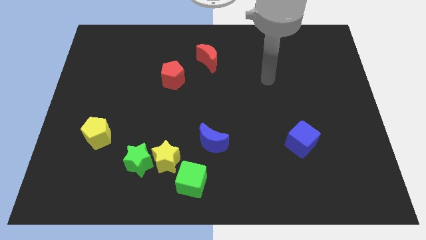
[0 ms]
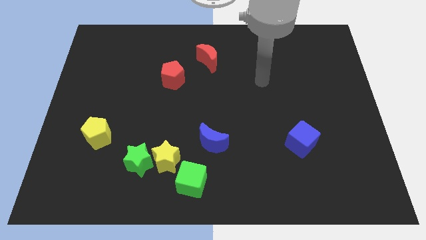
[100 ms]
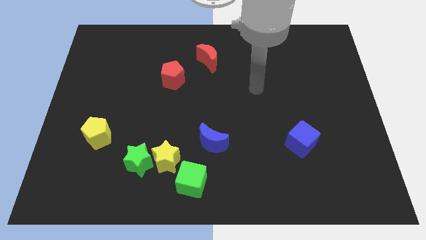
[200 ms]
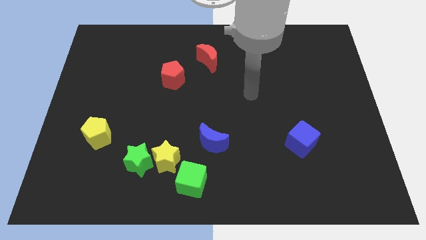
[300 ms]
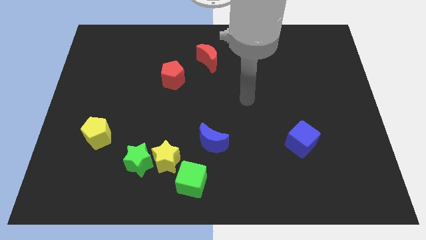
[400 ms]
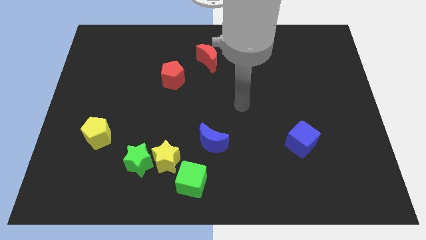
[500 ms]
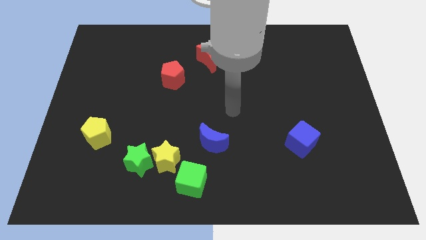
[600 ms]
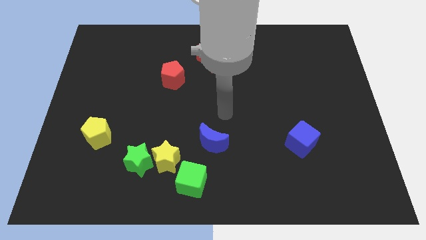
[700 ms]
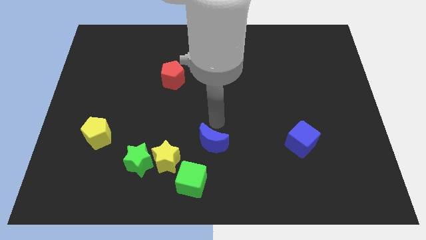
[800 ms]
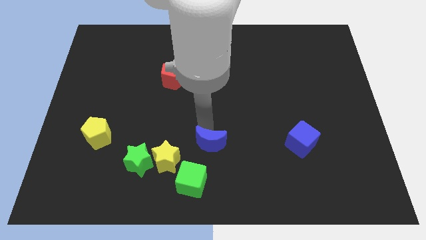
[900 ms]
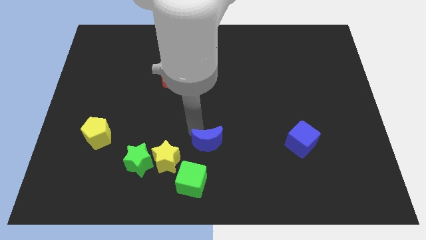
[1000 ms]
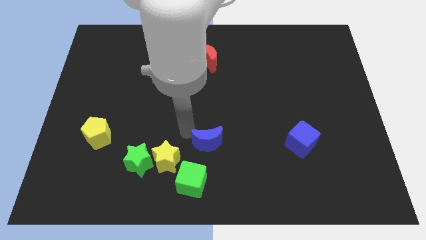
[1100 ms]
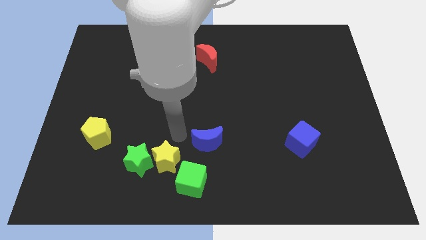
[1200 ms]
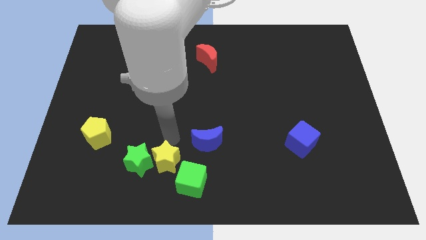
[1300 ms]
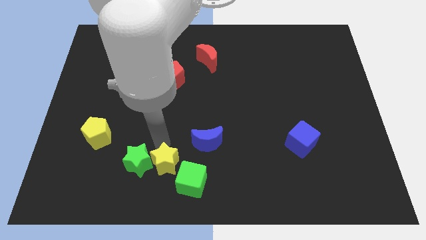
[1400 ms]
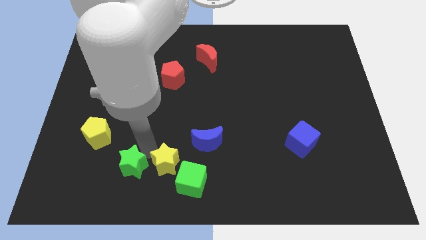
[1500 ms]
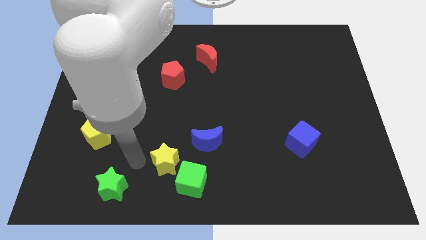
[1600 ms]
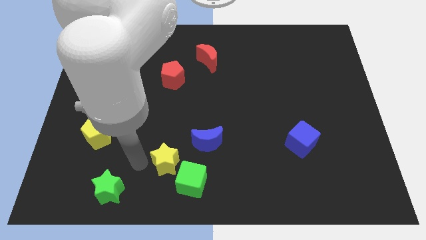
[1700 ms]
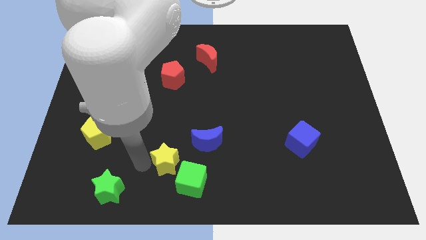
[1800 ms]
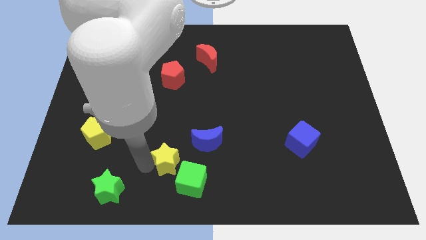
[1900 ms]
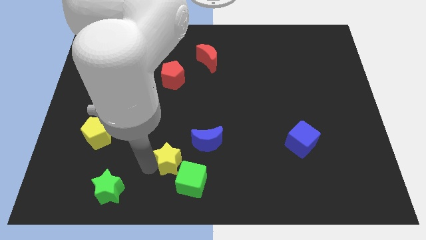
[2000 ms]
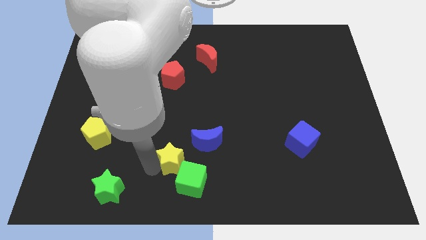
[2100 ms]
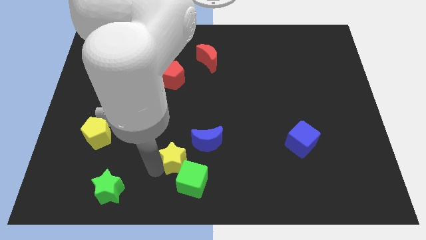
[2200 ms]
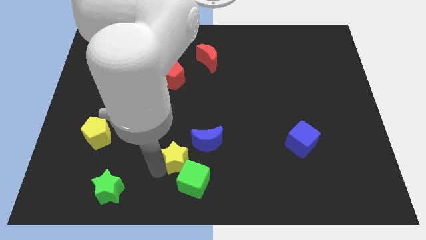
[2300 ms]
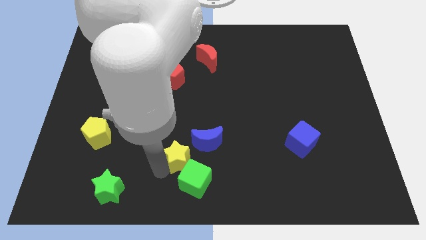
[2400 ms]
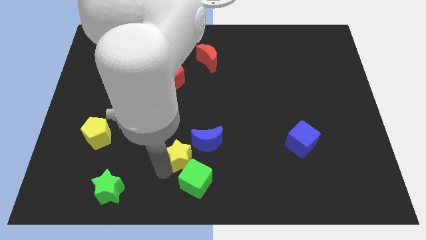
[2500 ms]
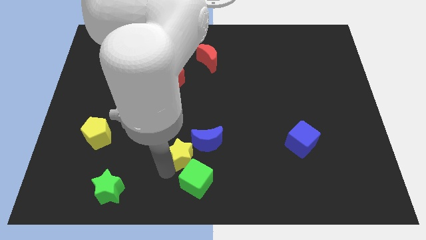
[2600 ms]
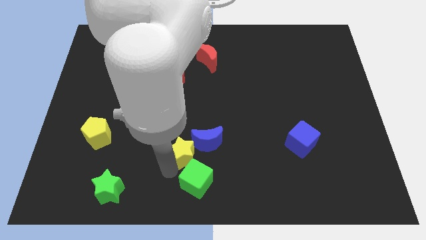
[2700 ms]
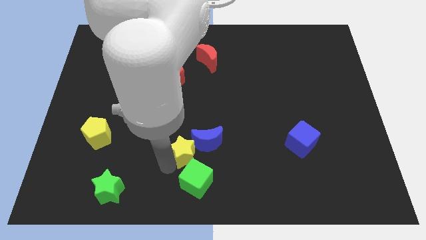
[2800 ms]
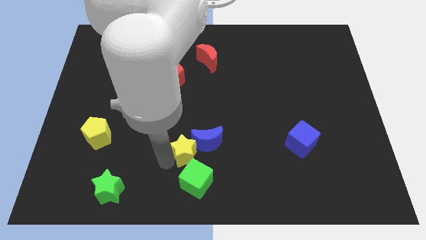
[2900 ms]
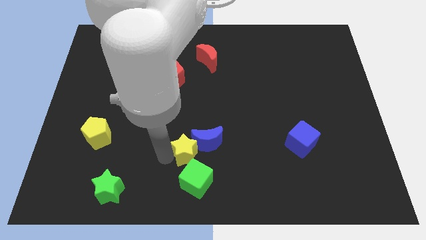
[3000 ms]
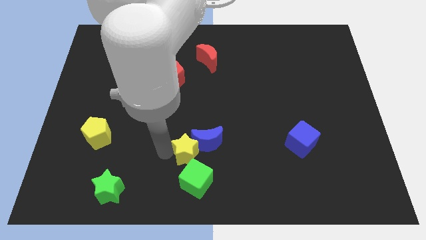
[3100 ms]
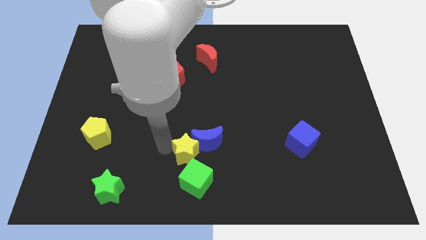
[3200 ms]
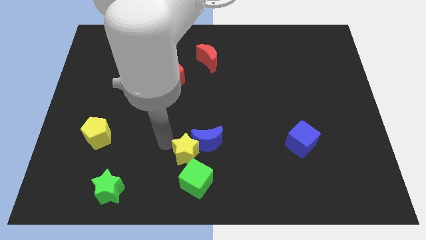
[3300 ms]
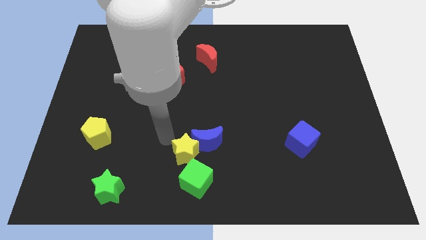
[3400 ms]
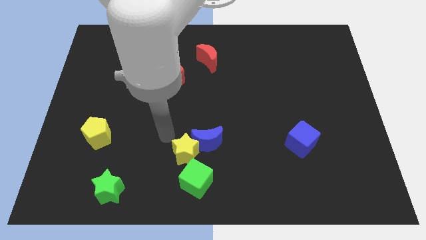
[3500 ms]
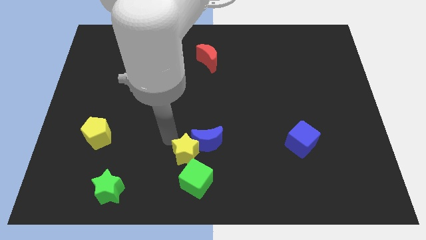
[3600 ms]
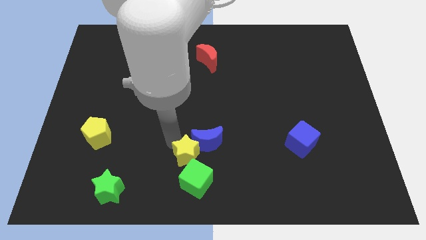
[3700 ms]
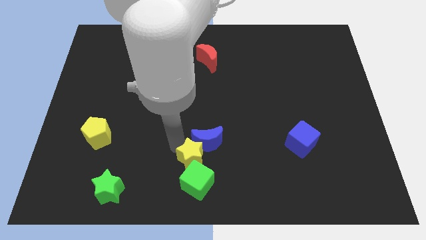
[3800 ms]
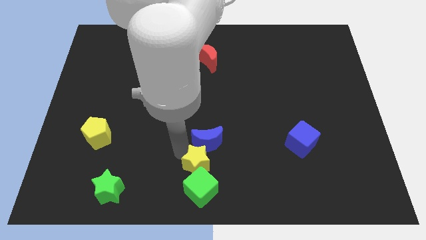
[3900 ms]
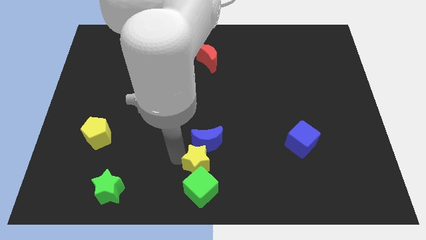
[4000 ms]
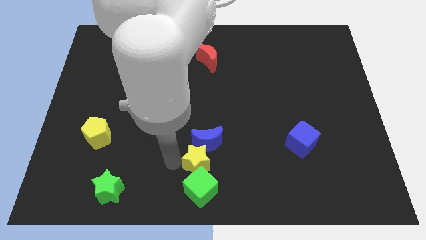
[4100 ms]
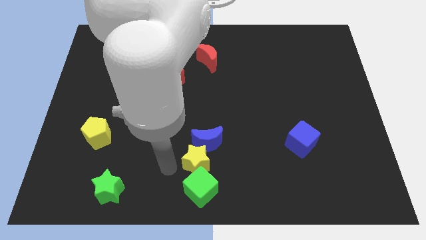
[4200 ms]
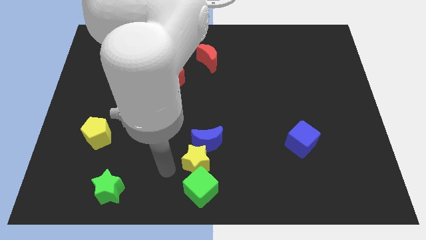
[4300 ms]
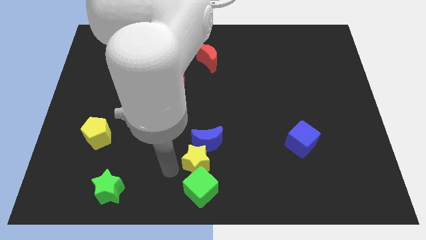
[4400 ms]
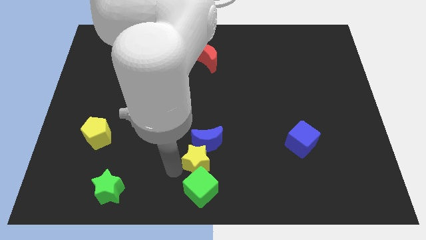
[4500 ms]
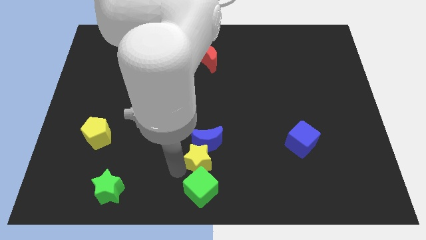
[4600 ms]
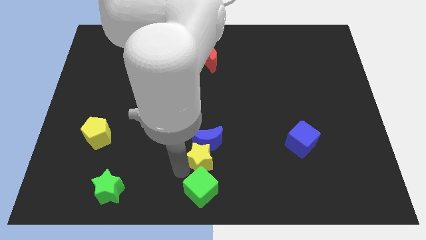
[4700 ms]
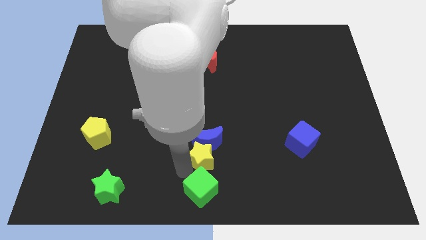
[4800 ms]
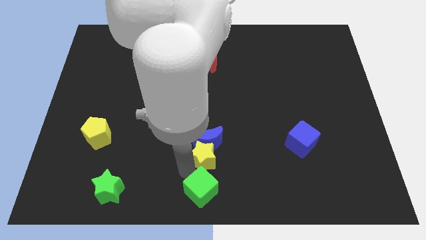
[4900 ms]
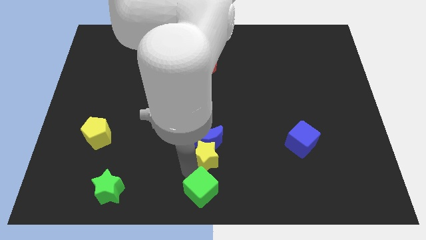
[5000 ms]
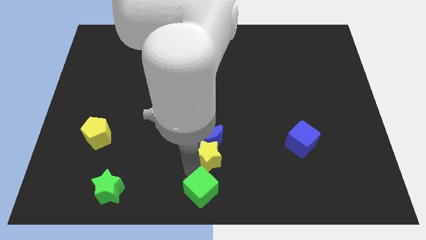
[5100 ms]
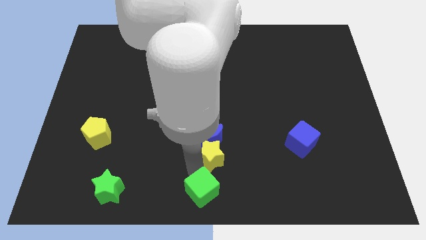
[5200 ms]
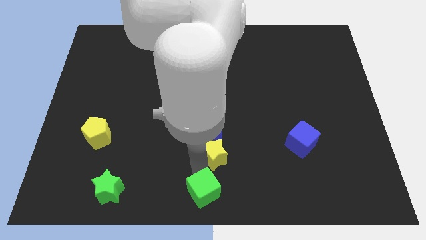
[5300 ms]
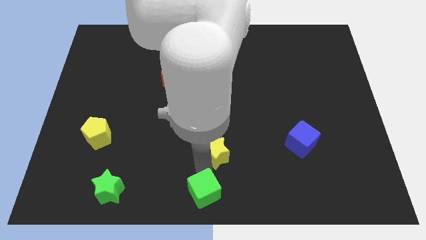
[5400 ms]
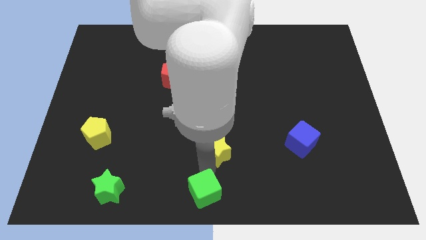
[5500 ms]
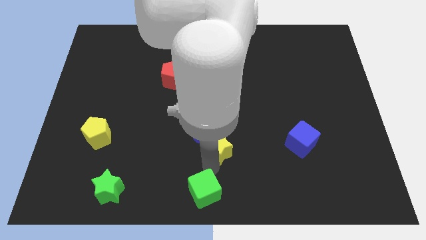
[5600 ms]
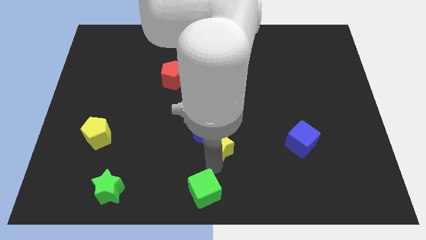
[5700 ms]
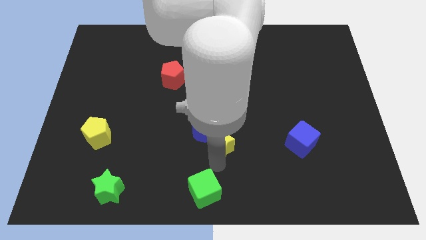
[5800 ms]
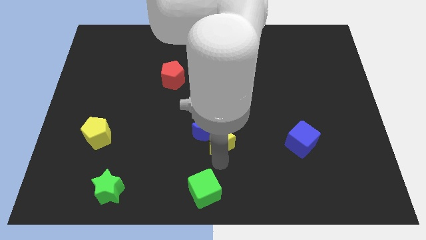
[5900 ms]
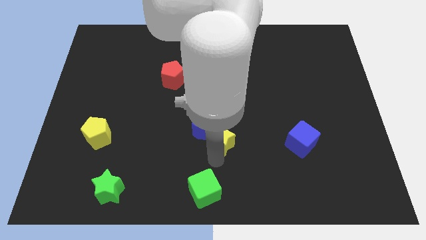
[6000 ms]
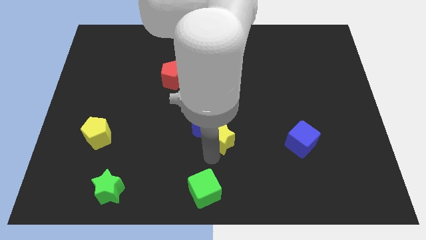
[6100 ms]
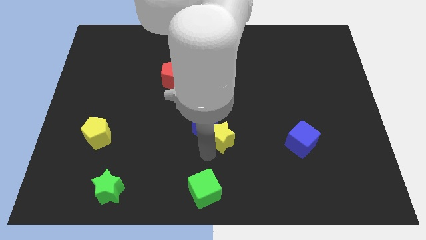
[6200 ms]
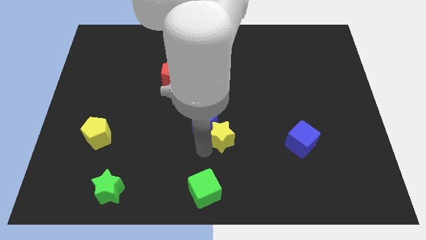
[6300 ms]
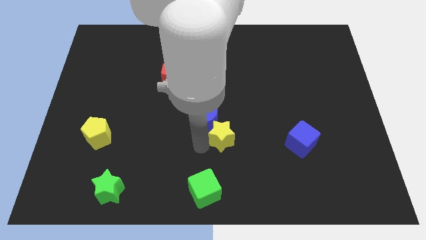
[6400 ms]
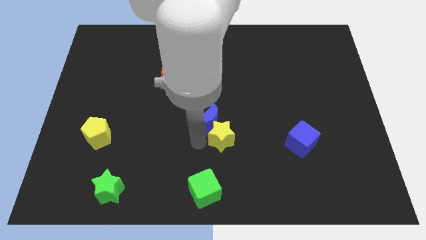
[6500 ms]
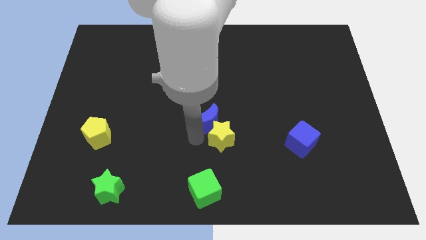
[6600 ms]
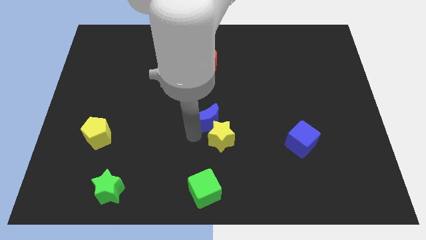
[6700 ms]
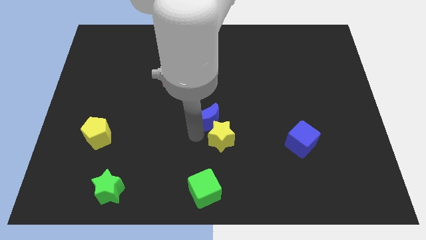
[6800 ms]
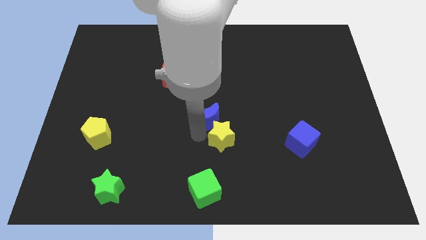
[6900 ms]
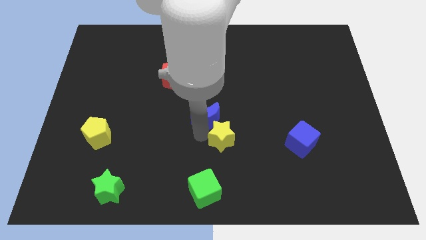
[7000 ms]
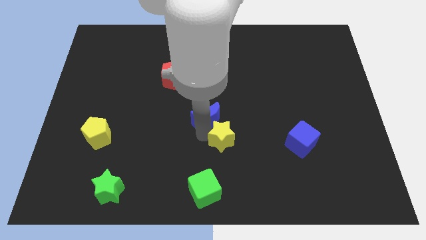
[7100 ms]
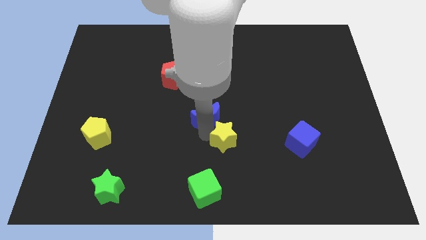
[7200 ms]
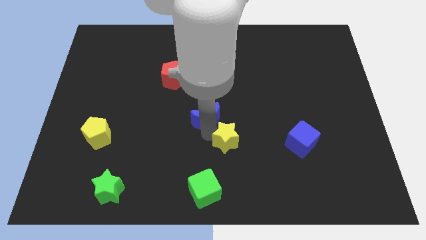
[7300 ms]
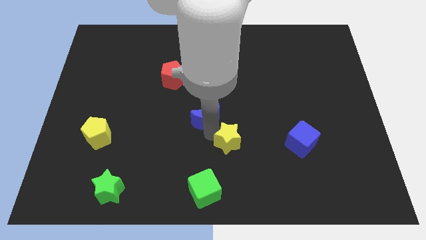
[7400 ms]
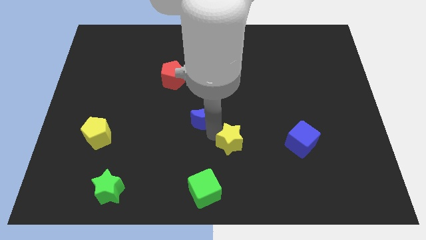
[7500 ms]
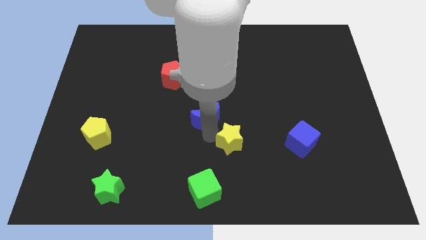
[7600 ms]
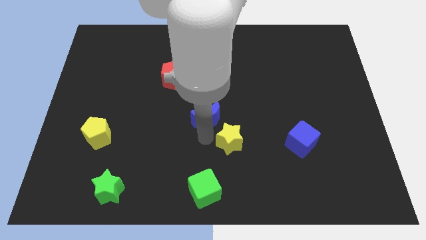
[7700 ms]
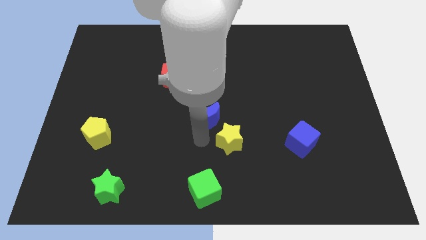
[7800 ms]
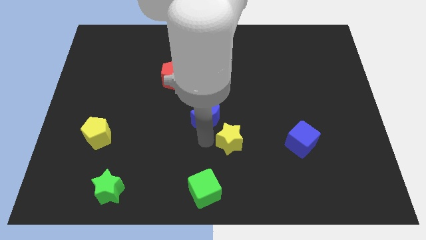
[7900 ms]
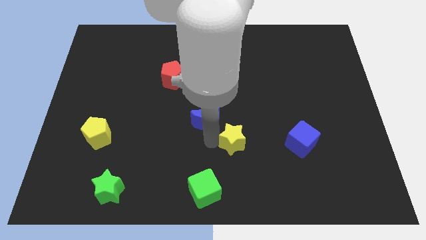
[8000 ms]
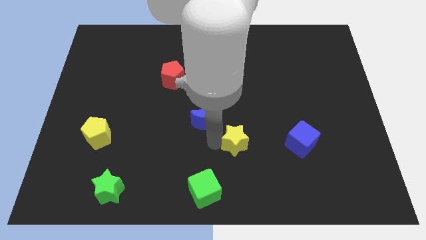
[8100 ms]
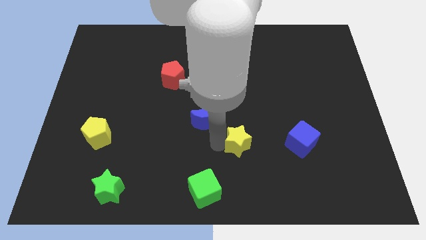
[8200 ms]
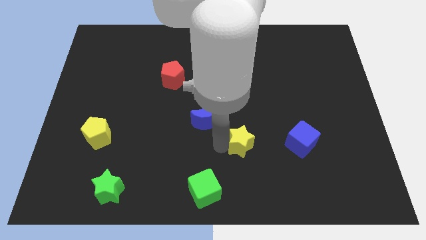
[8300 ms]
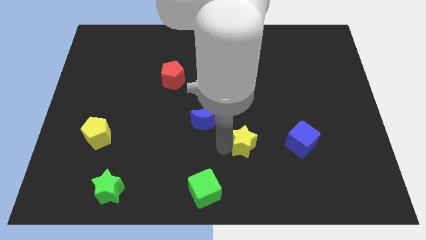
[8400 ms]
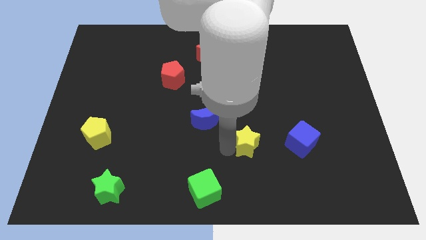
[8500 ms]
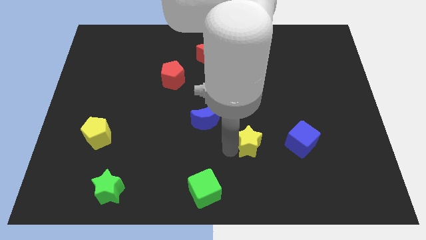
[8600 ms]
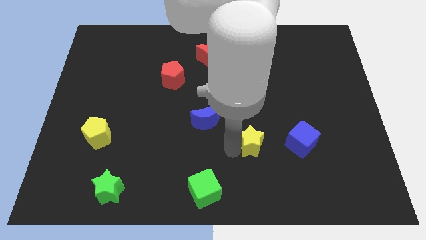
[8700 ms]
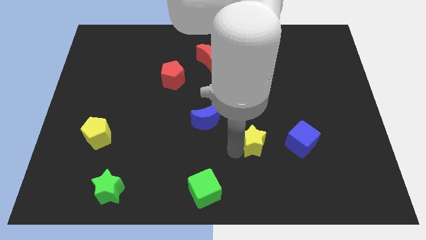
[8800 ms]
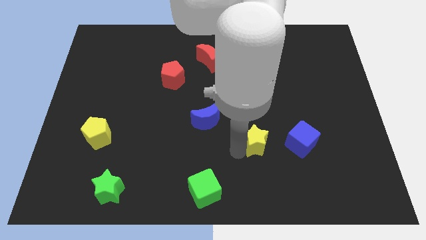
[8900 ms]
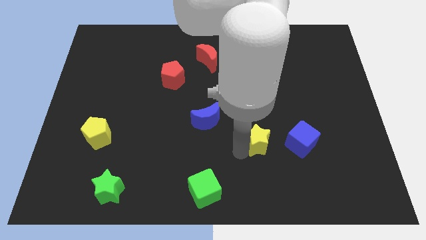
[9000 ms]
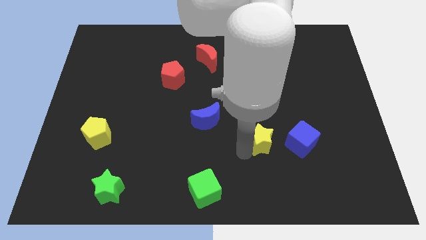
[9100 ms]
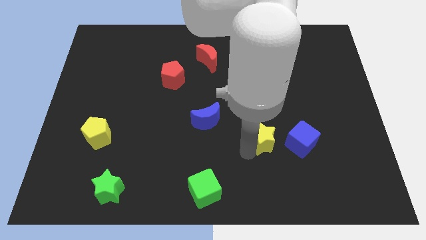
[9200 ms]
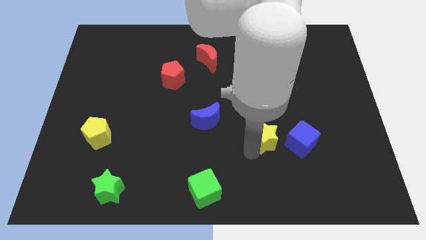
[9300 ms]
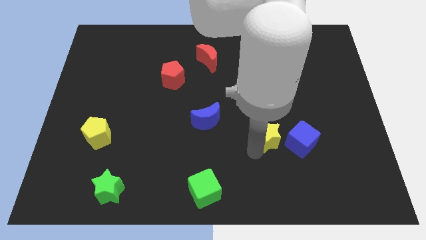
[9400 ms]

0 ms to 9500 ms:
slide the yellow star to the top left of the blue cube
